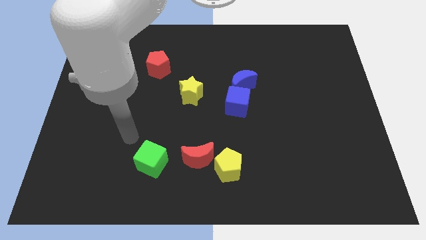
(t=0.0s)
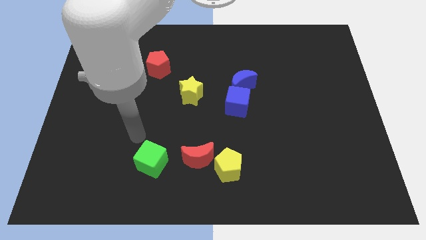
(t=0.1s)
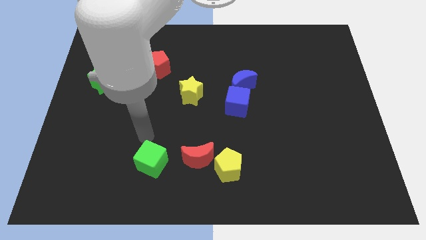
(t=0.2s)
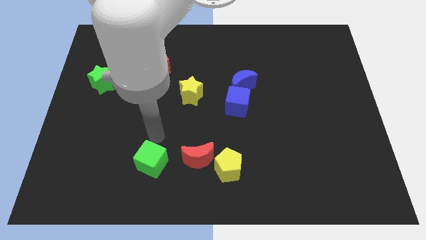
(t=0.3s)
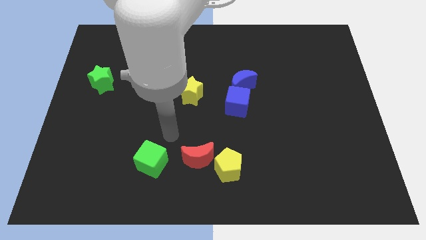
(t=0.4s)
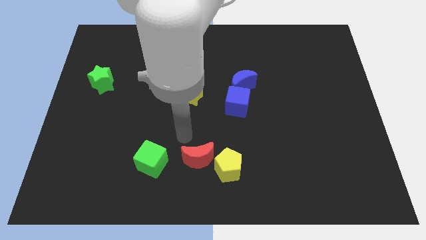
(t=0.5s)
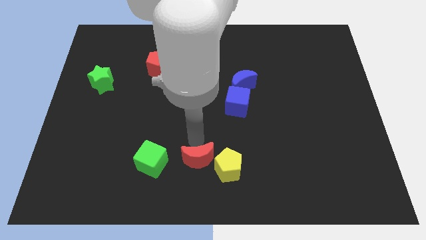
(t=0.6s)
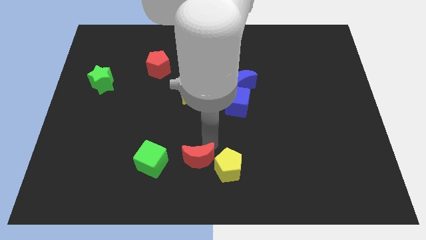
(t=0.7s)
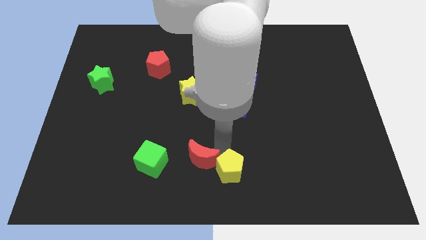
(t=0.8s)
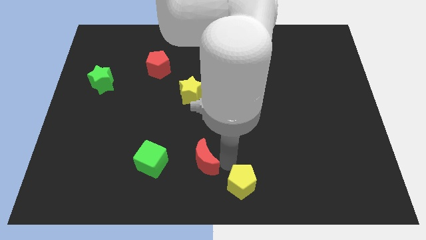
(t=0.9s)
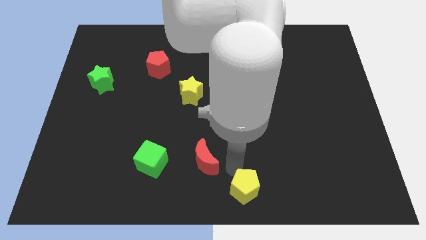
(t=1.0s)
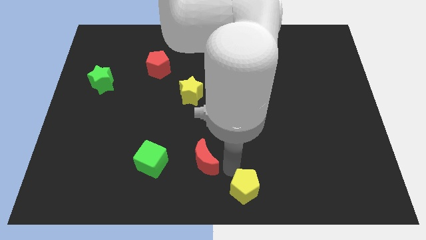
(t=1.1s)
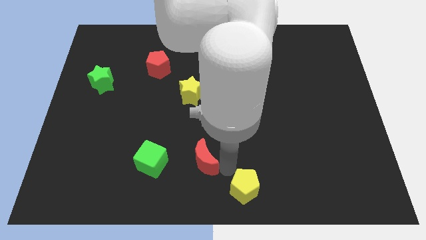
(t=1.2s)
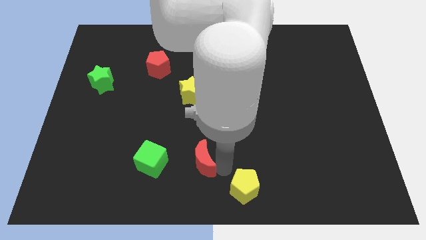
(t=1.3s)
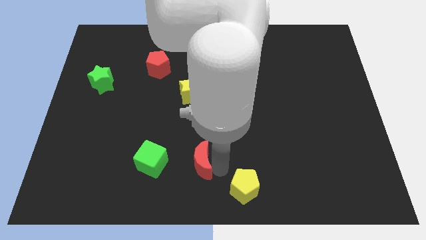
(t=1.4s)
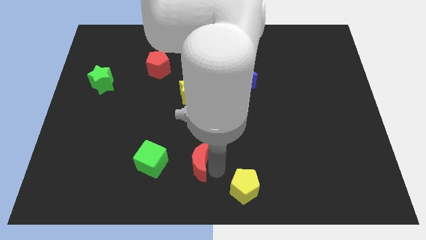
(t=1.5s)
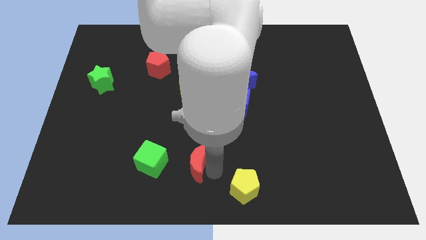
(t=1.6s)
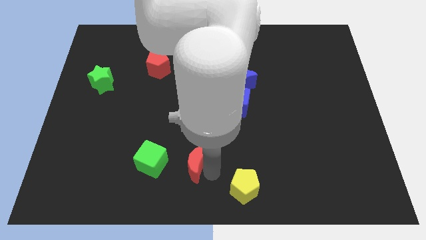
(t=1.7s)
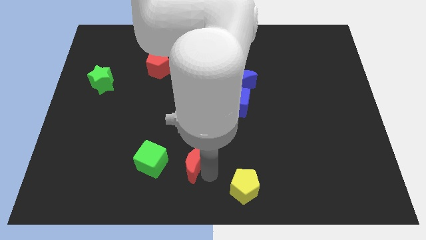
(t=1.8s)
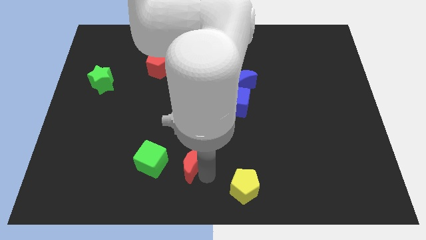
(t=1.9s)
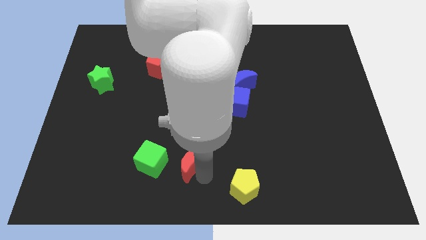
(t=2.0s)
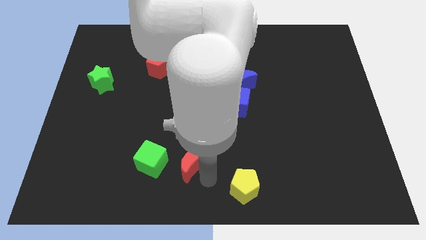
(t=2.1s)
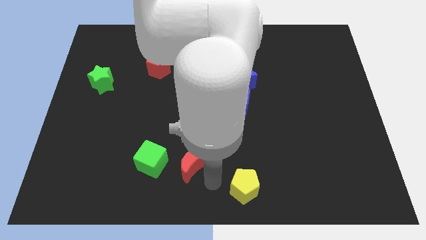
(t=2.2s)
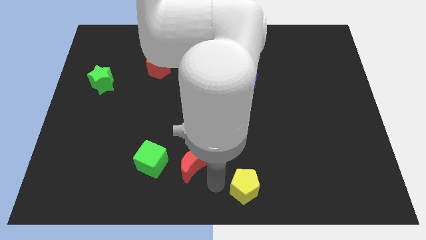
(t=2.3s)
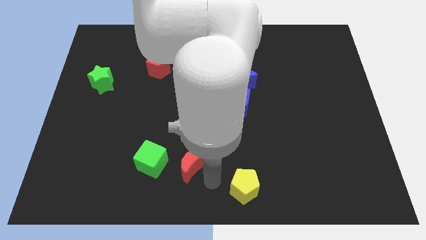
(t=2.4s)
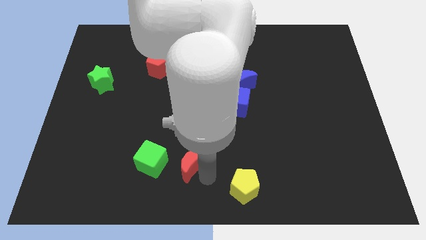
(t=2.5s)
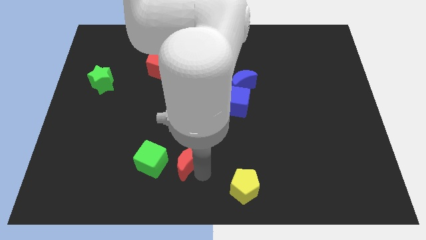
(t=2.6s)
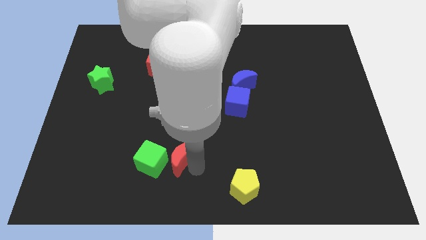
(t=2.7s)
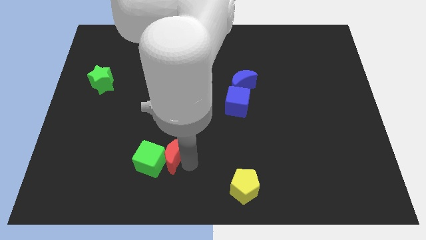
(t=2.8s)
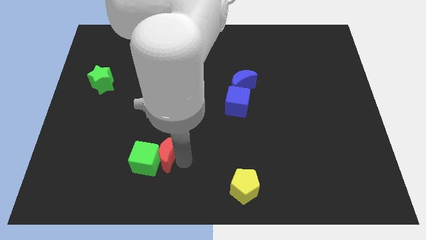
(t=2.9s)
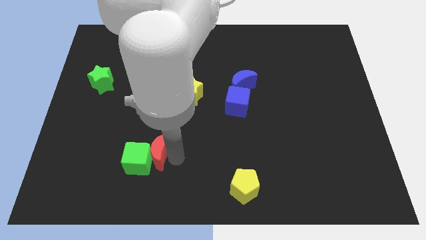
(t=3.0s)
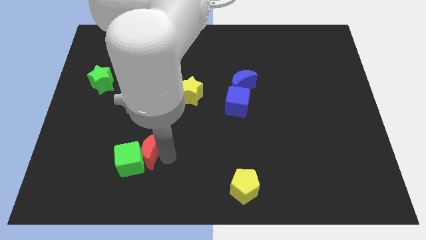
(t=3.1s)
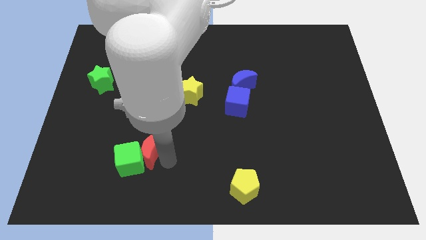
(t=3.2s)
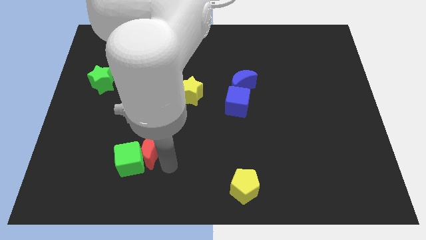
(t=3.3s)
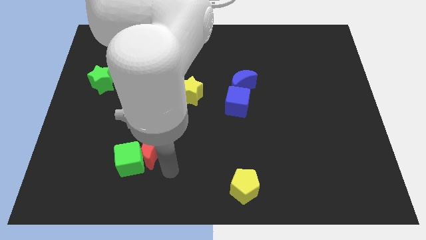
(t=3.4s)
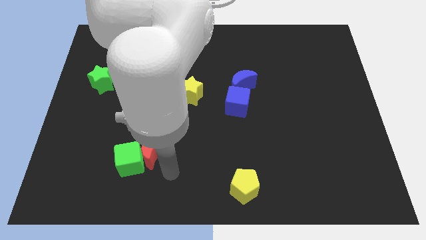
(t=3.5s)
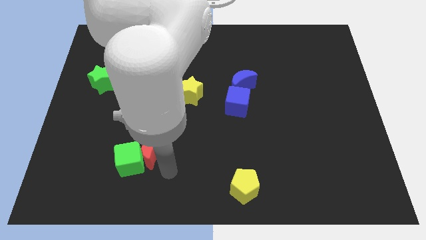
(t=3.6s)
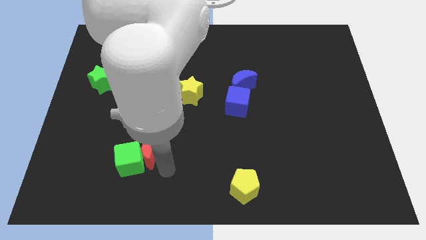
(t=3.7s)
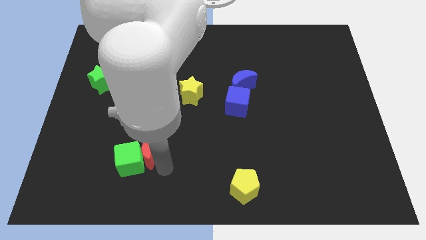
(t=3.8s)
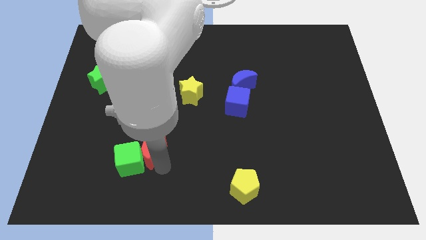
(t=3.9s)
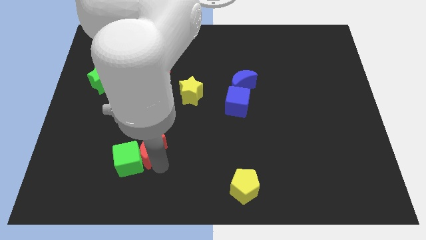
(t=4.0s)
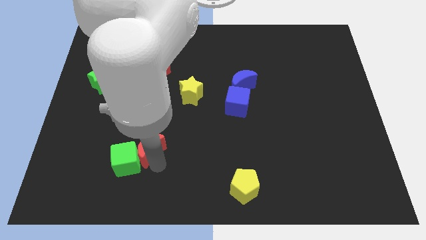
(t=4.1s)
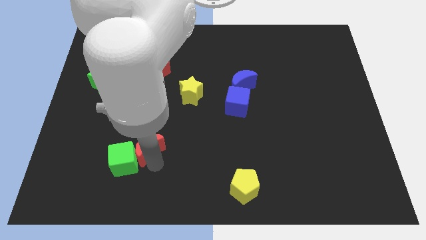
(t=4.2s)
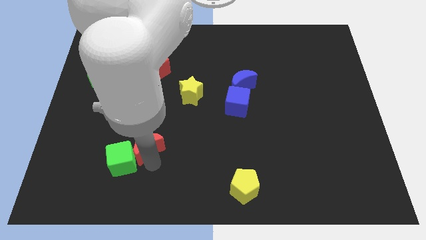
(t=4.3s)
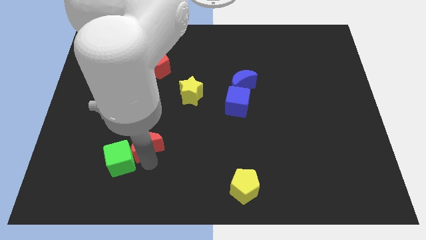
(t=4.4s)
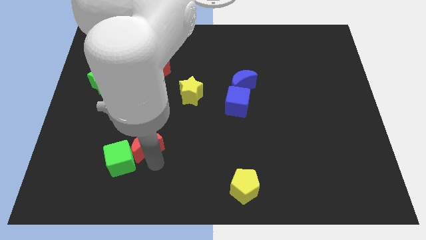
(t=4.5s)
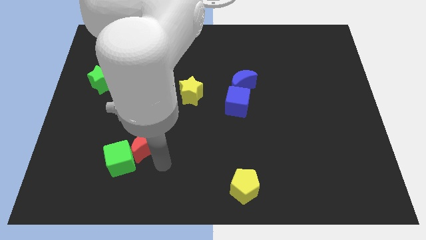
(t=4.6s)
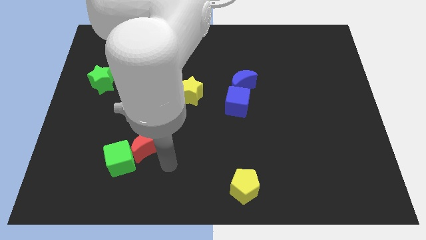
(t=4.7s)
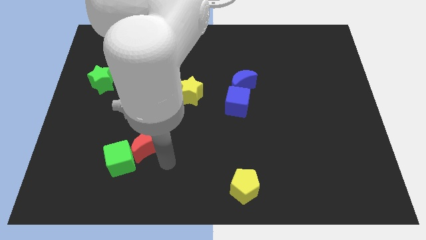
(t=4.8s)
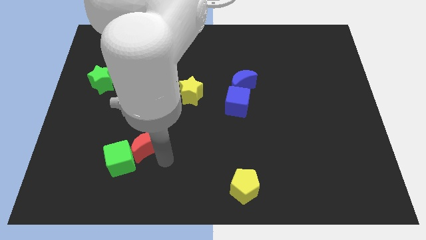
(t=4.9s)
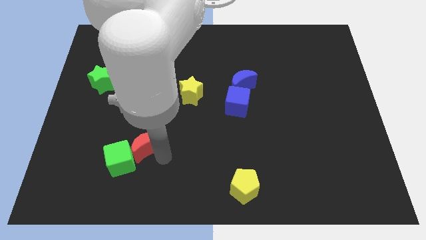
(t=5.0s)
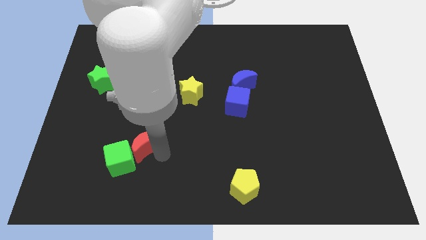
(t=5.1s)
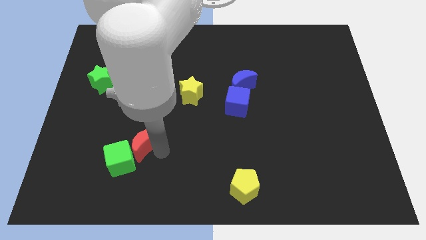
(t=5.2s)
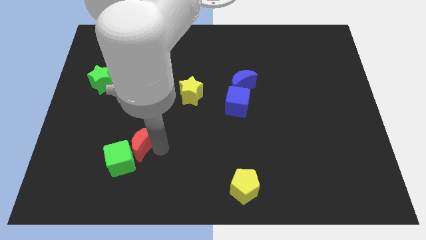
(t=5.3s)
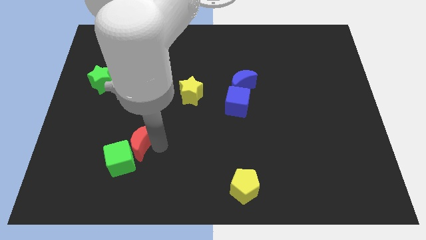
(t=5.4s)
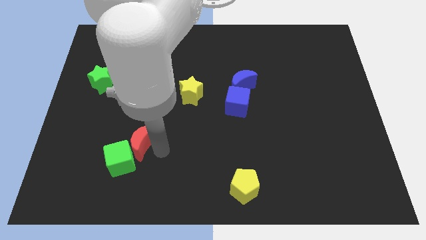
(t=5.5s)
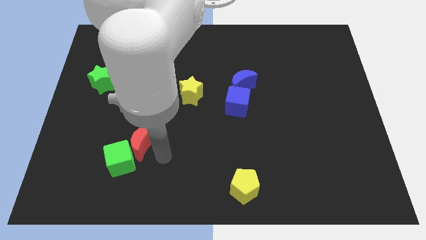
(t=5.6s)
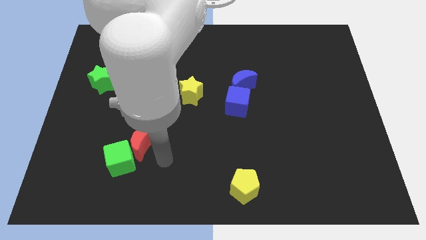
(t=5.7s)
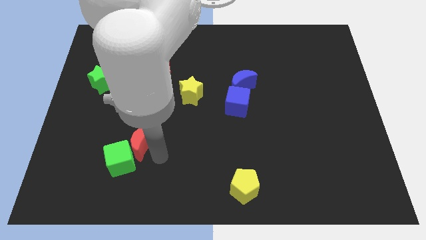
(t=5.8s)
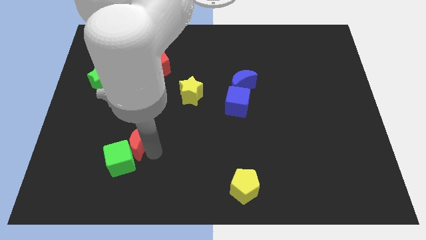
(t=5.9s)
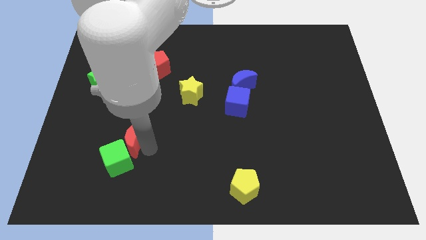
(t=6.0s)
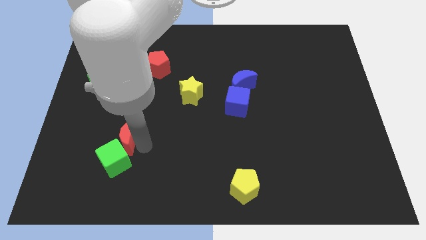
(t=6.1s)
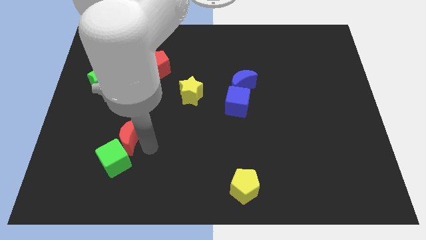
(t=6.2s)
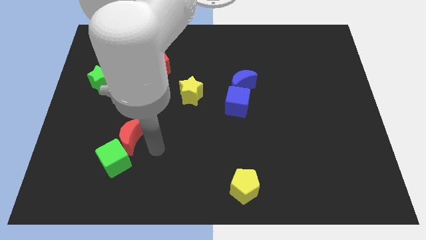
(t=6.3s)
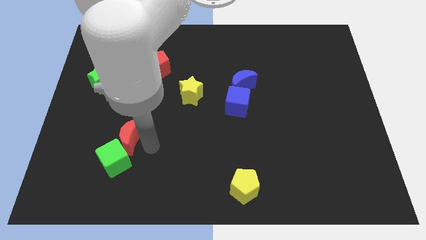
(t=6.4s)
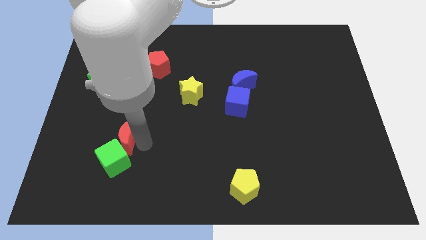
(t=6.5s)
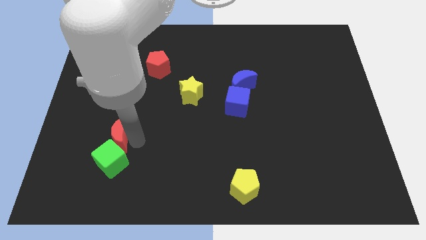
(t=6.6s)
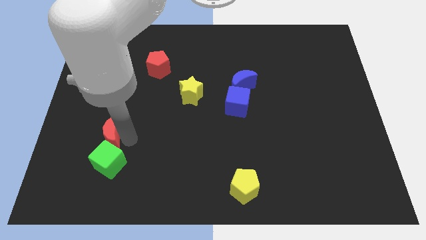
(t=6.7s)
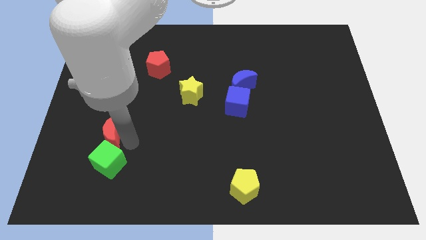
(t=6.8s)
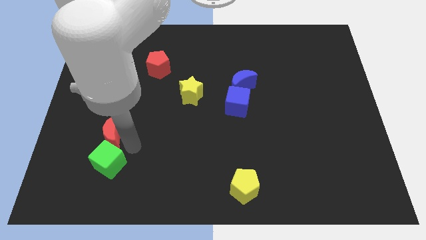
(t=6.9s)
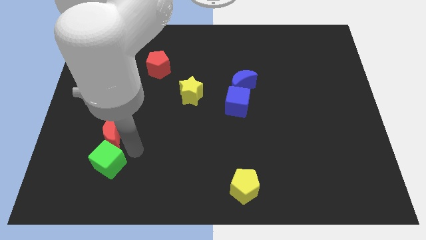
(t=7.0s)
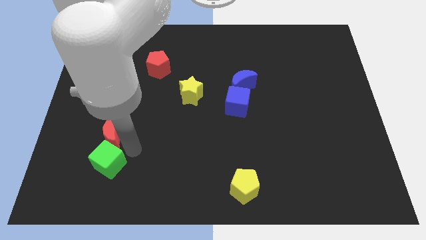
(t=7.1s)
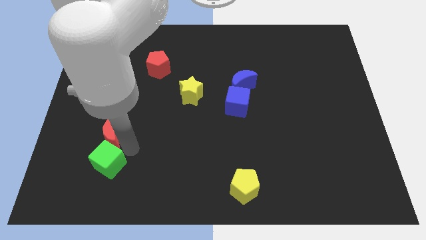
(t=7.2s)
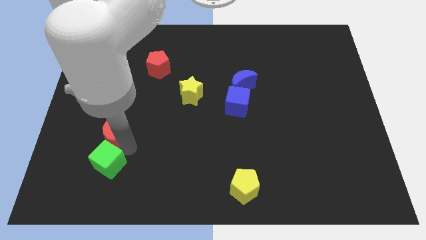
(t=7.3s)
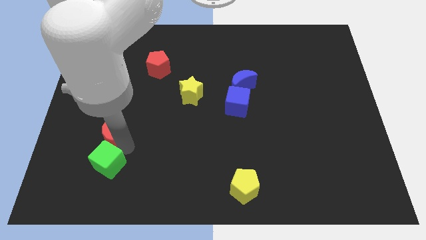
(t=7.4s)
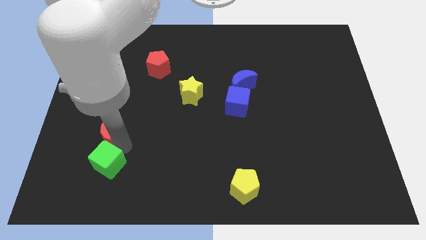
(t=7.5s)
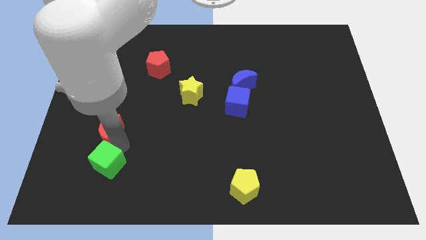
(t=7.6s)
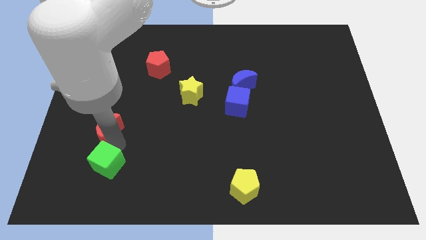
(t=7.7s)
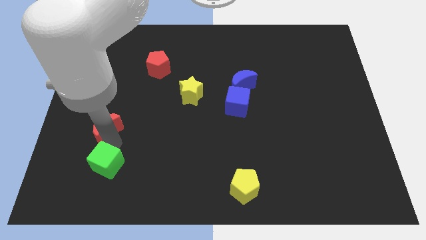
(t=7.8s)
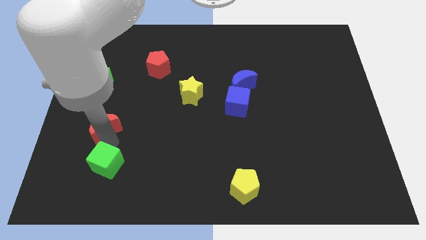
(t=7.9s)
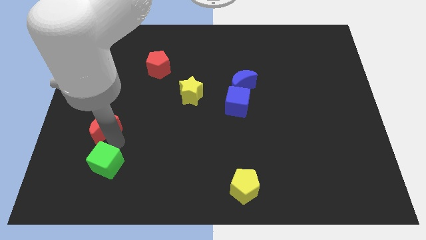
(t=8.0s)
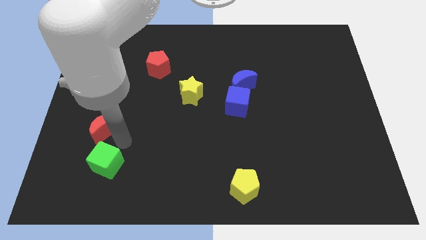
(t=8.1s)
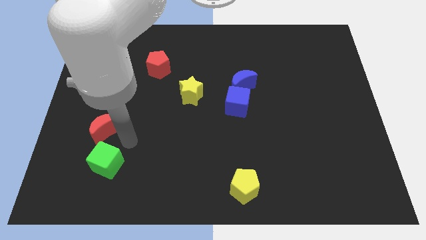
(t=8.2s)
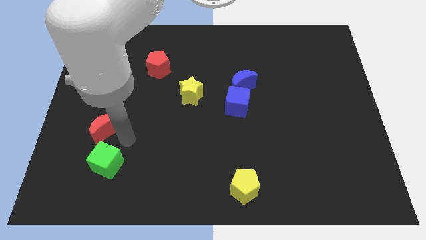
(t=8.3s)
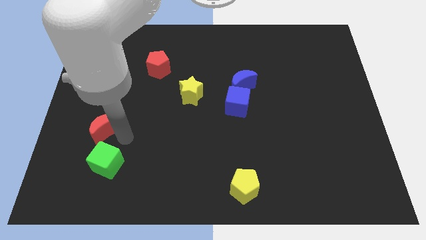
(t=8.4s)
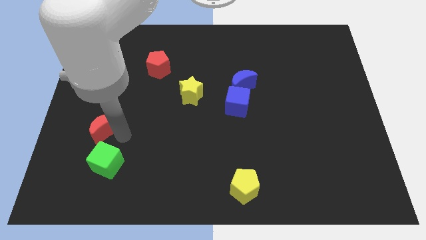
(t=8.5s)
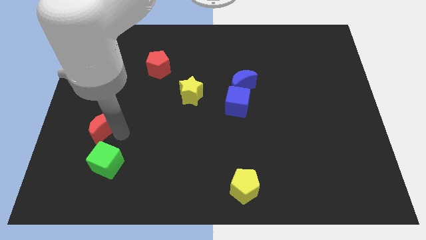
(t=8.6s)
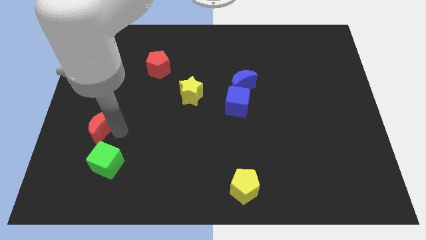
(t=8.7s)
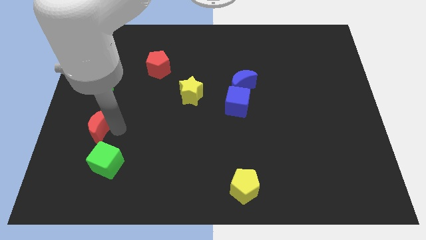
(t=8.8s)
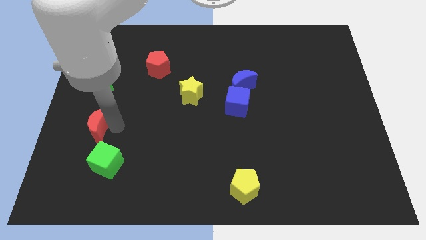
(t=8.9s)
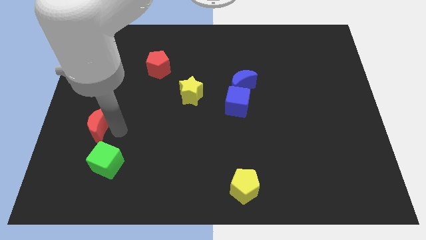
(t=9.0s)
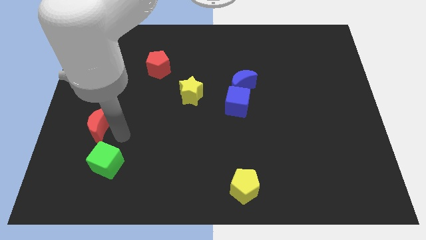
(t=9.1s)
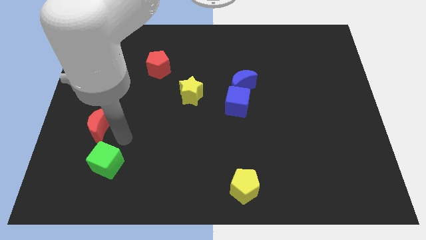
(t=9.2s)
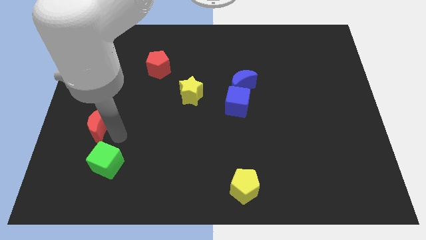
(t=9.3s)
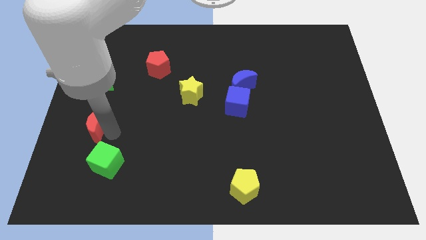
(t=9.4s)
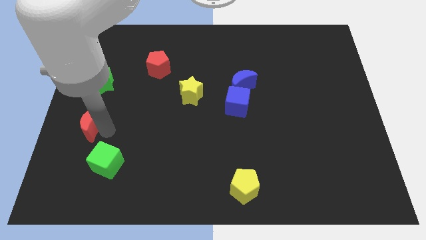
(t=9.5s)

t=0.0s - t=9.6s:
move the red moon to the left side
